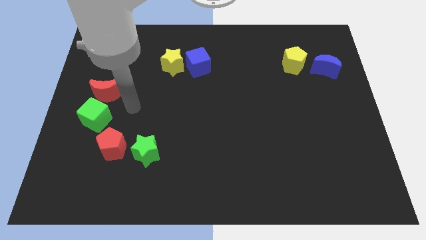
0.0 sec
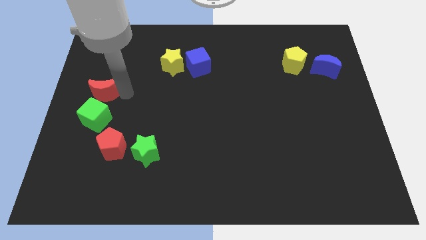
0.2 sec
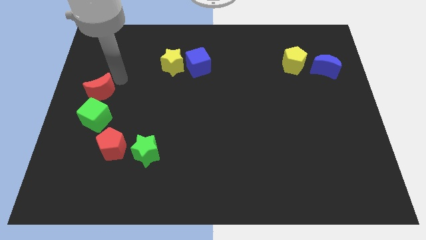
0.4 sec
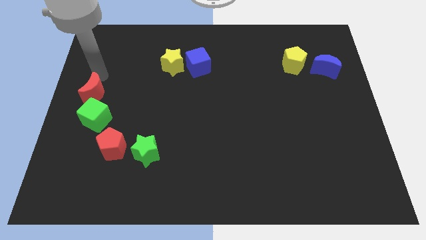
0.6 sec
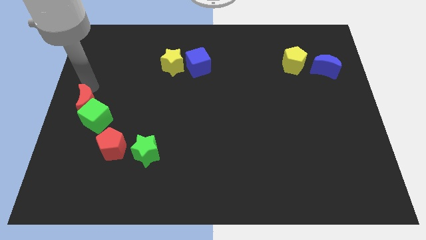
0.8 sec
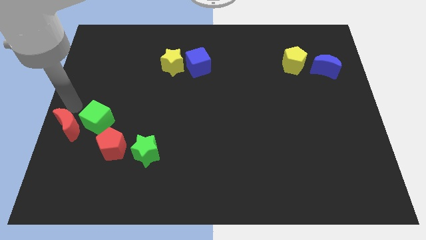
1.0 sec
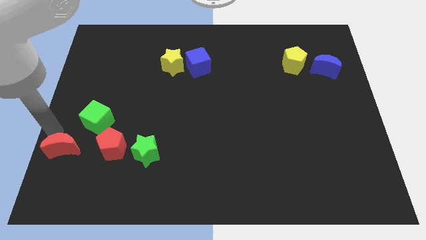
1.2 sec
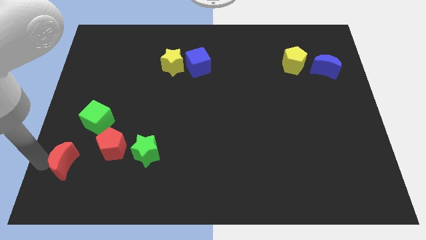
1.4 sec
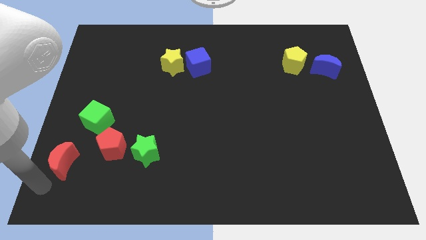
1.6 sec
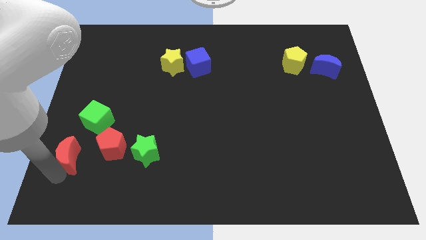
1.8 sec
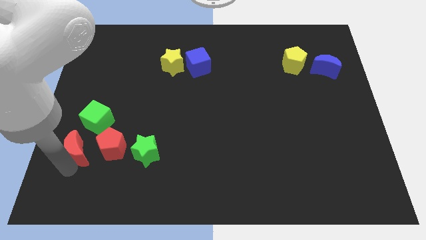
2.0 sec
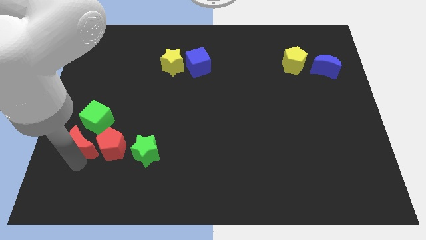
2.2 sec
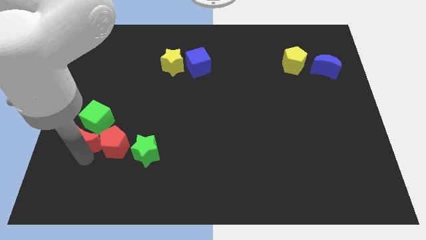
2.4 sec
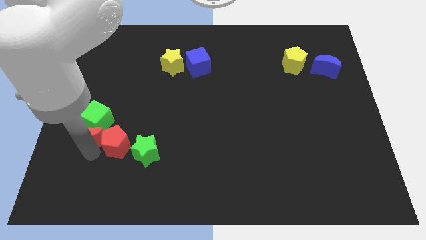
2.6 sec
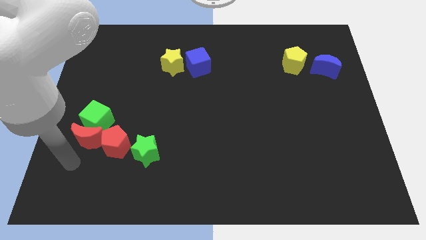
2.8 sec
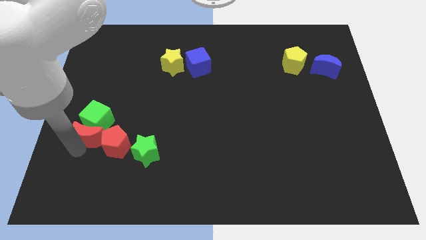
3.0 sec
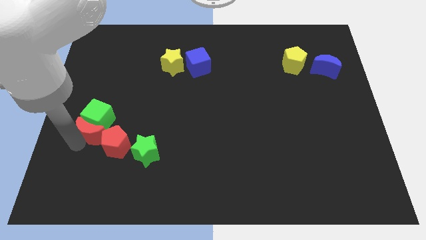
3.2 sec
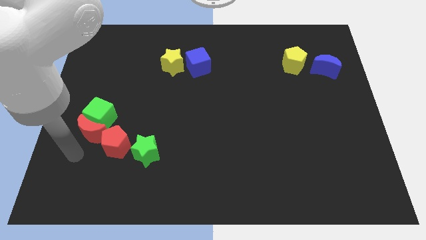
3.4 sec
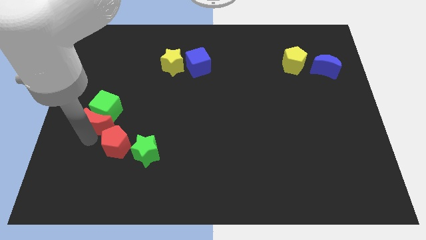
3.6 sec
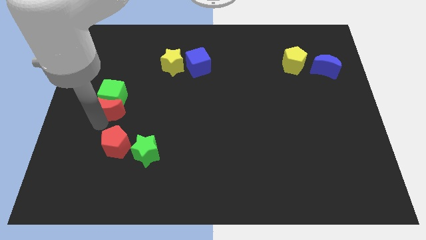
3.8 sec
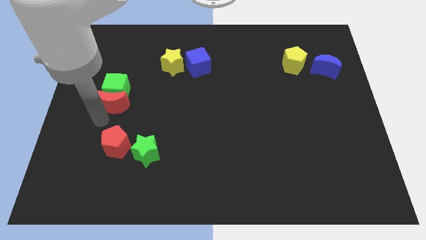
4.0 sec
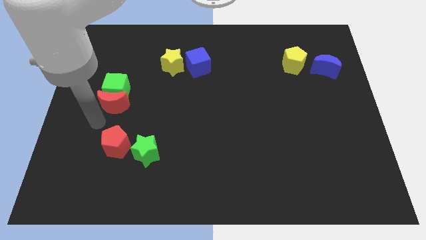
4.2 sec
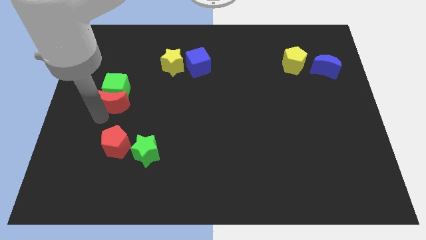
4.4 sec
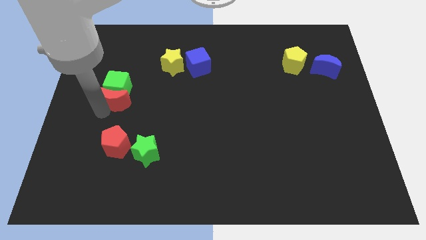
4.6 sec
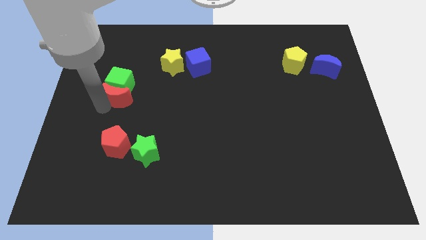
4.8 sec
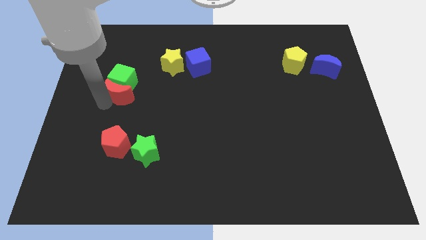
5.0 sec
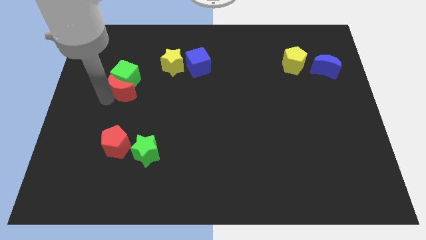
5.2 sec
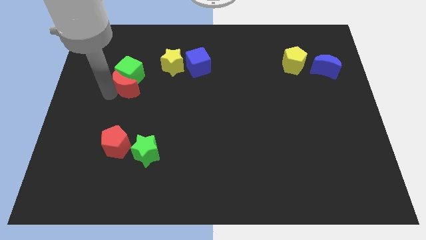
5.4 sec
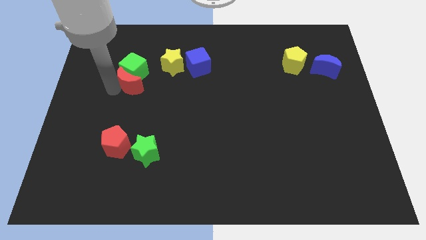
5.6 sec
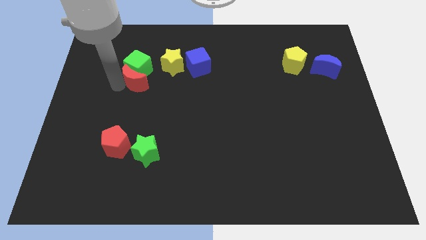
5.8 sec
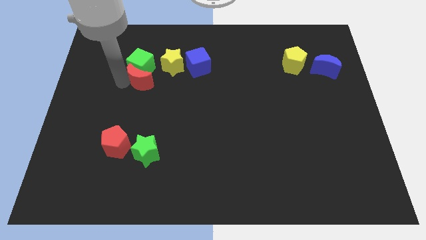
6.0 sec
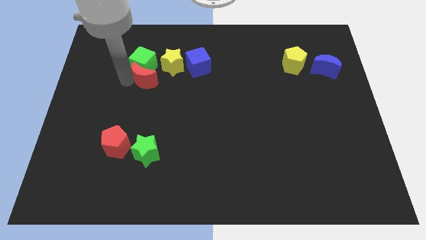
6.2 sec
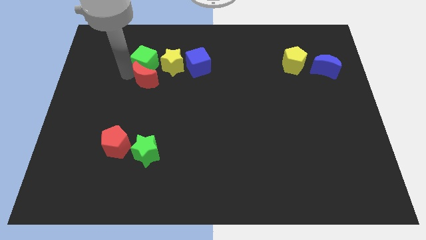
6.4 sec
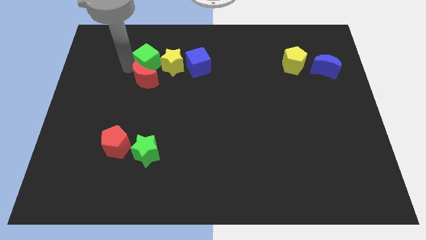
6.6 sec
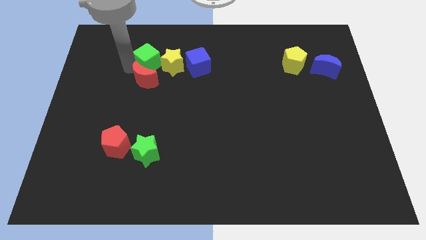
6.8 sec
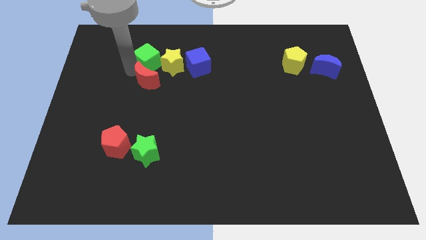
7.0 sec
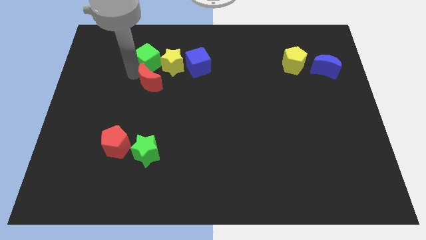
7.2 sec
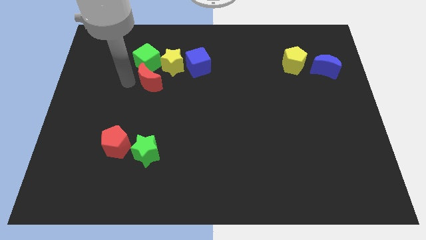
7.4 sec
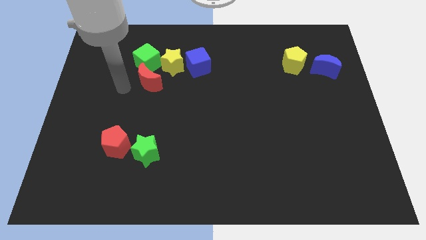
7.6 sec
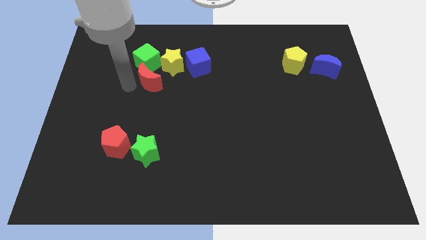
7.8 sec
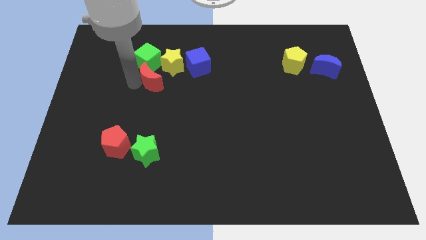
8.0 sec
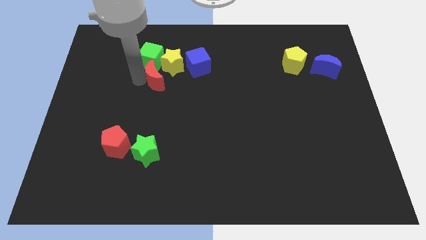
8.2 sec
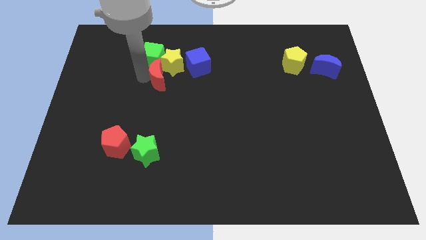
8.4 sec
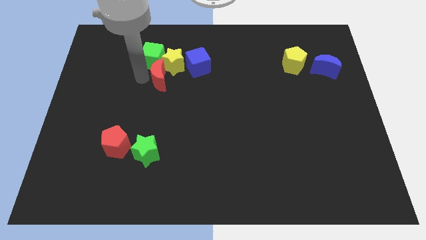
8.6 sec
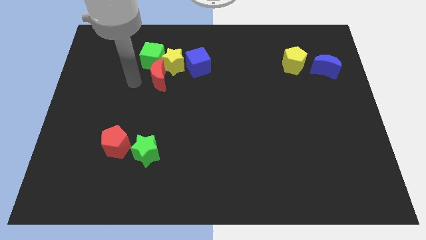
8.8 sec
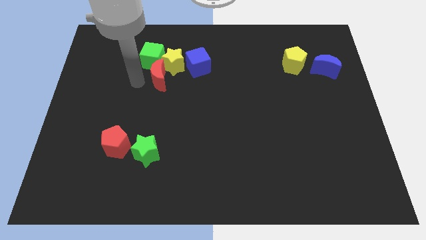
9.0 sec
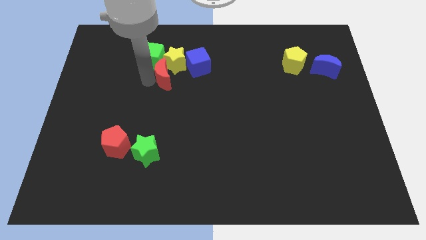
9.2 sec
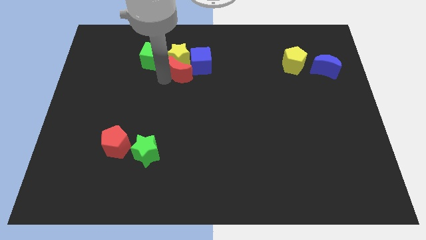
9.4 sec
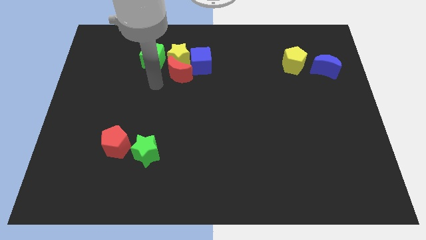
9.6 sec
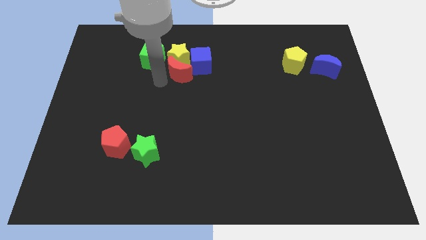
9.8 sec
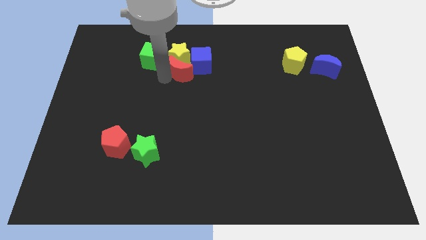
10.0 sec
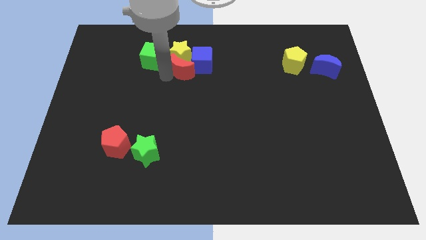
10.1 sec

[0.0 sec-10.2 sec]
slide the red moon next to the blue cube

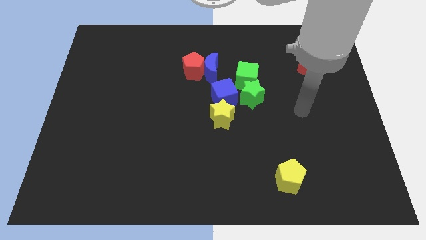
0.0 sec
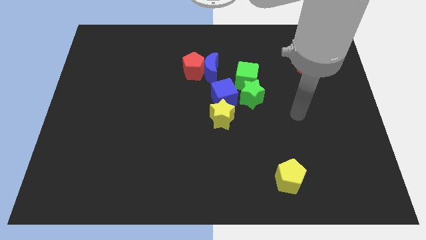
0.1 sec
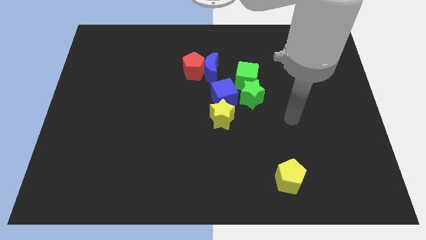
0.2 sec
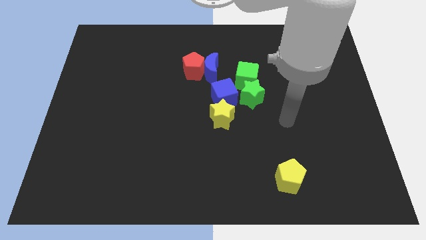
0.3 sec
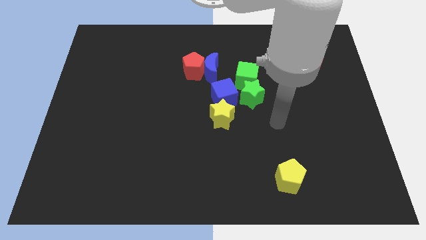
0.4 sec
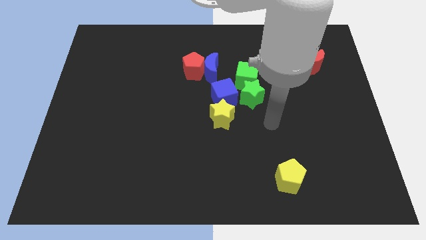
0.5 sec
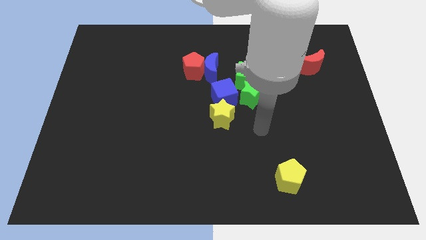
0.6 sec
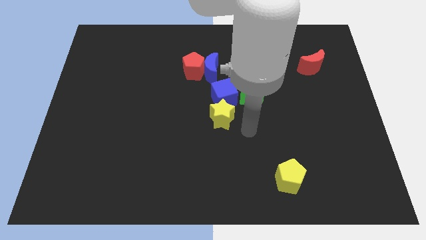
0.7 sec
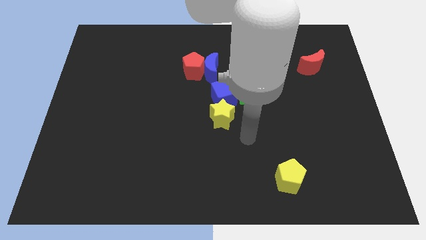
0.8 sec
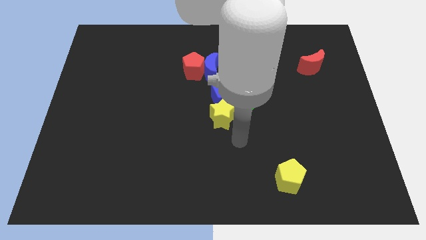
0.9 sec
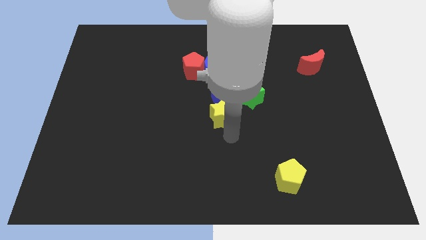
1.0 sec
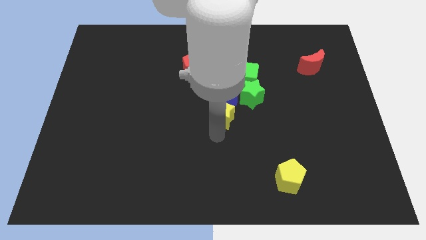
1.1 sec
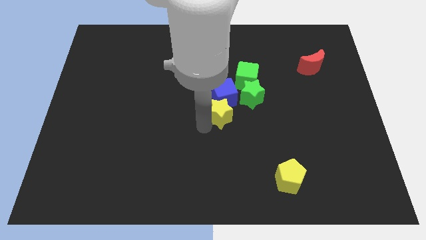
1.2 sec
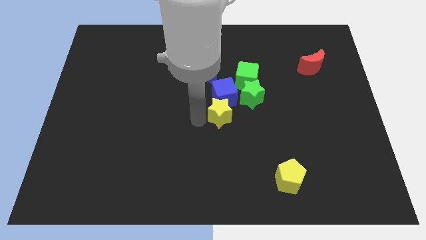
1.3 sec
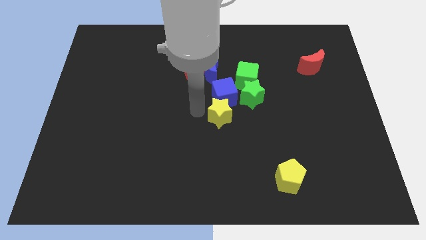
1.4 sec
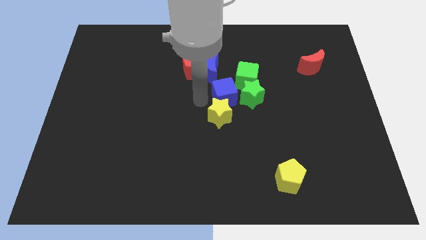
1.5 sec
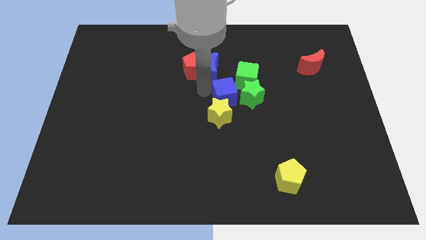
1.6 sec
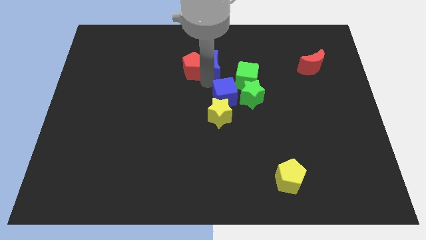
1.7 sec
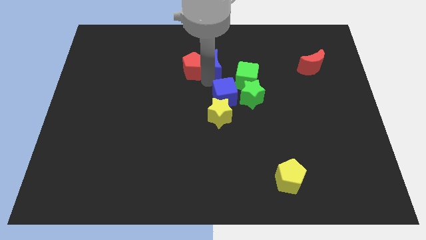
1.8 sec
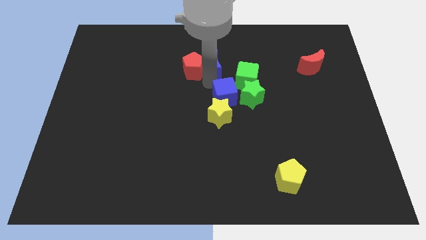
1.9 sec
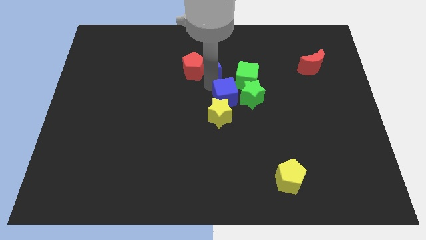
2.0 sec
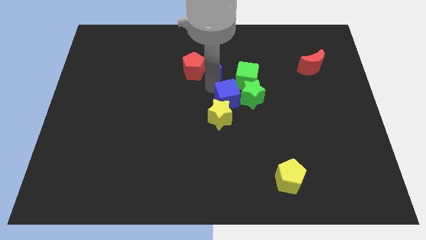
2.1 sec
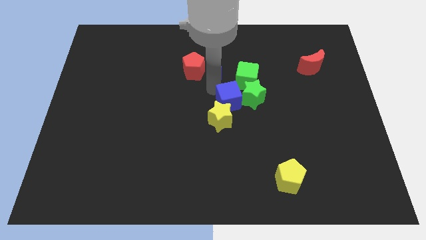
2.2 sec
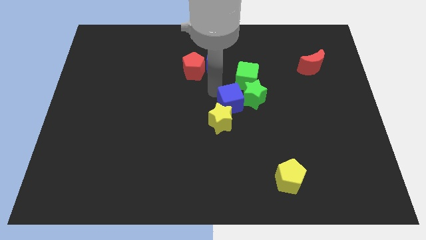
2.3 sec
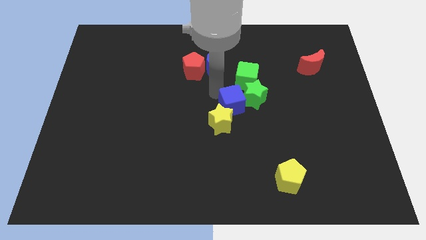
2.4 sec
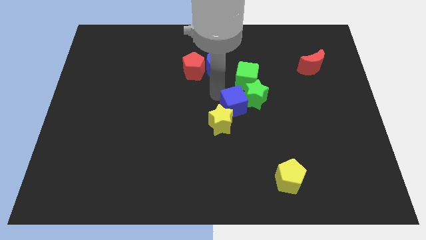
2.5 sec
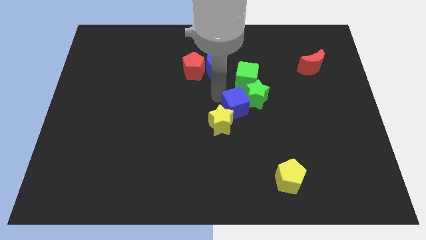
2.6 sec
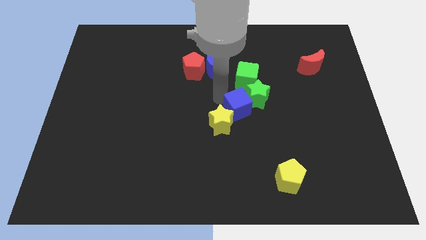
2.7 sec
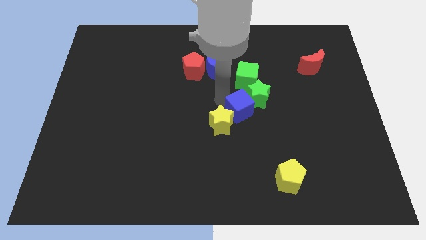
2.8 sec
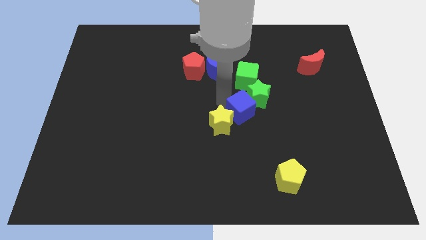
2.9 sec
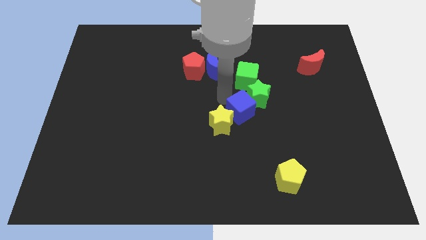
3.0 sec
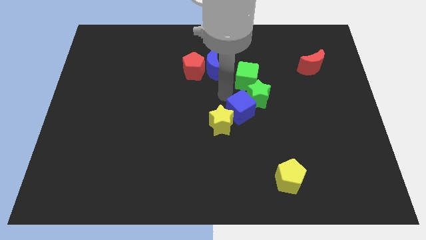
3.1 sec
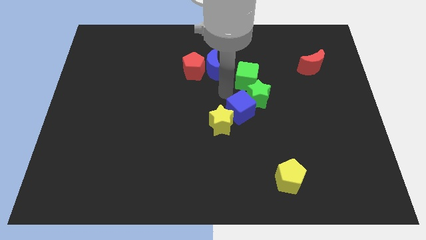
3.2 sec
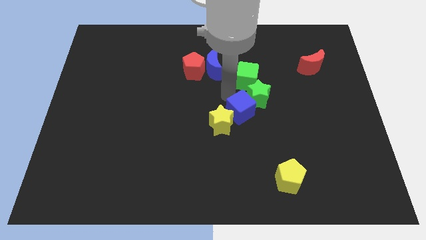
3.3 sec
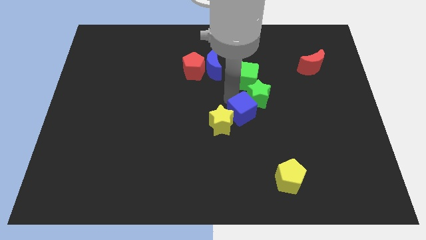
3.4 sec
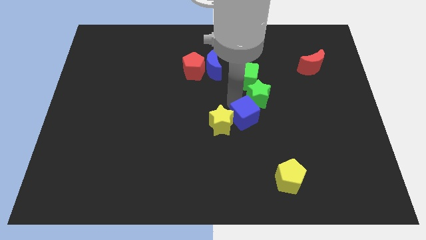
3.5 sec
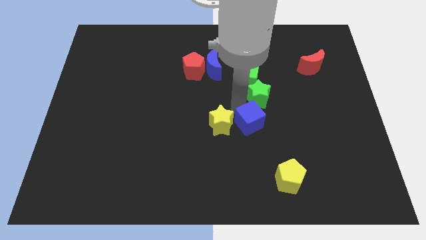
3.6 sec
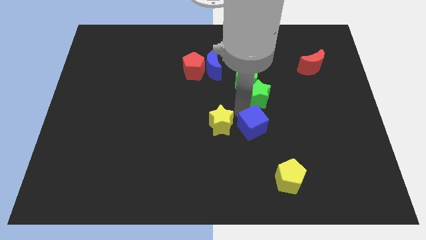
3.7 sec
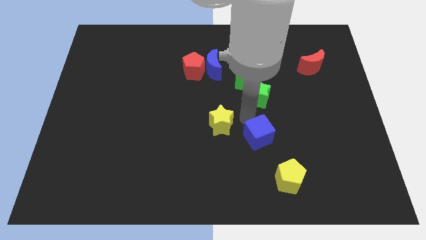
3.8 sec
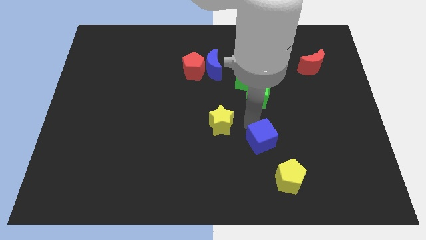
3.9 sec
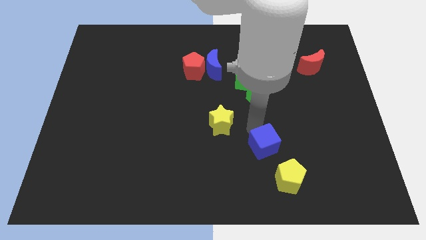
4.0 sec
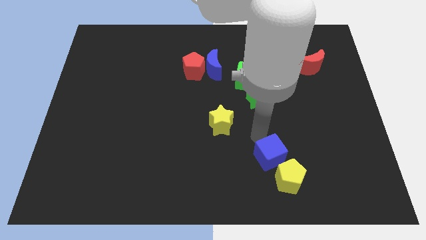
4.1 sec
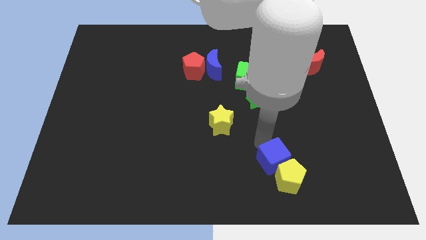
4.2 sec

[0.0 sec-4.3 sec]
move the blue cube close to the yellow pentagon
